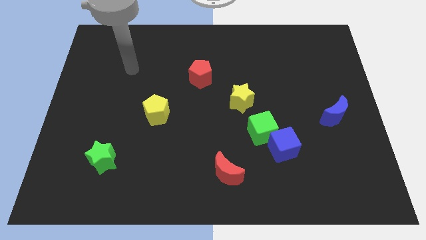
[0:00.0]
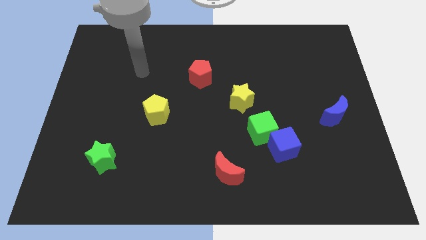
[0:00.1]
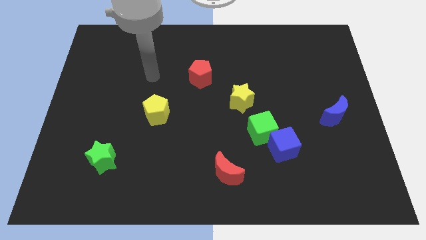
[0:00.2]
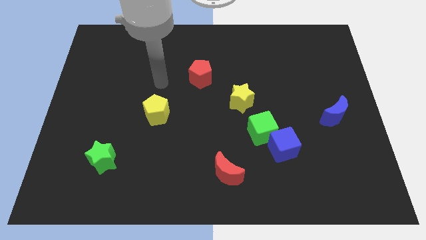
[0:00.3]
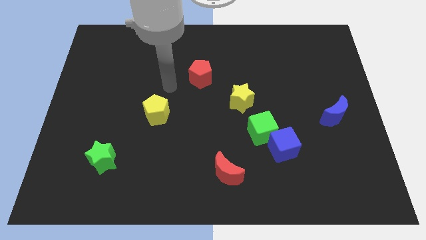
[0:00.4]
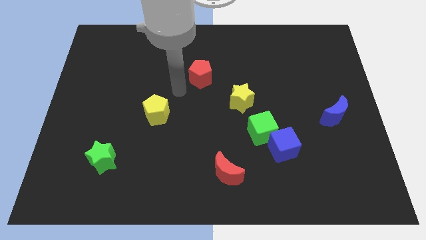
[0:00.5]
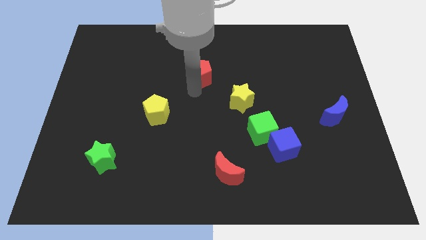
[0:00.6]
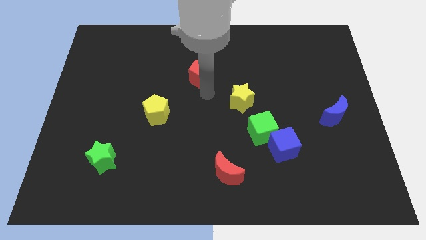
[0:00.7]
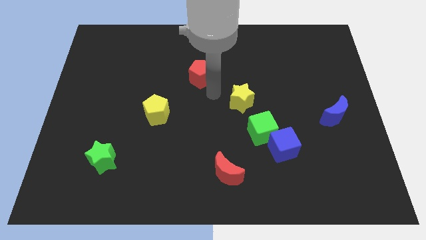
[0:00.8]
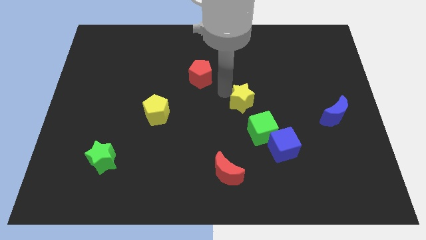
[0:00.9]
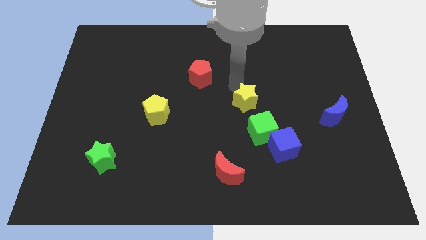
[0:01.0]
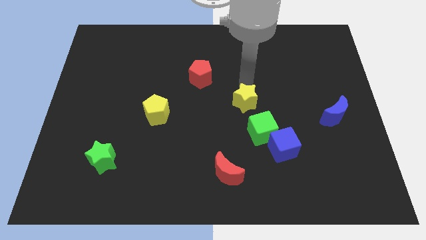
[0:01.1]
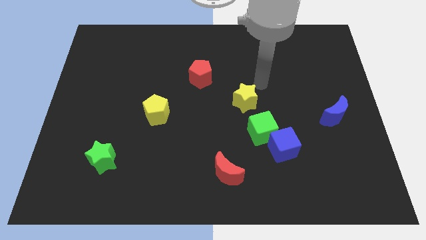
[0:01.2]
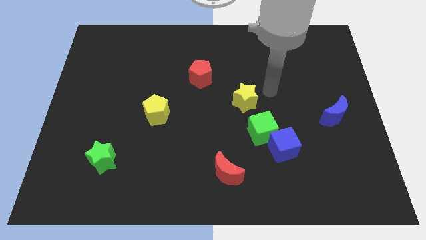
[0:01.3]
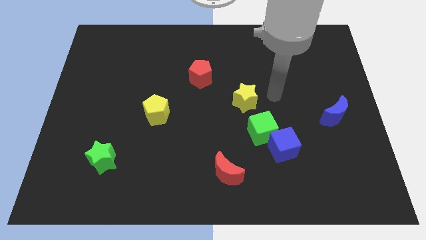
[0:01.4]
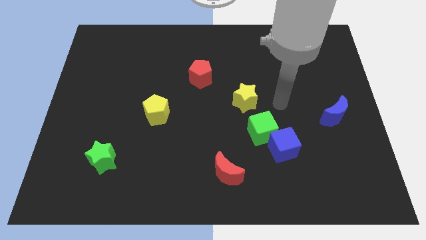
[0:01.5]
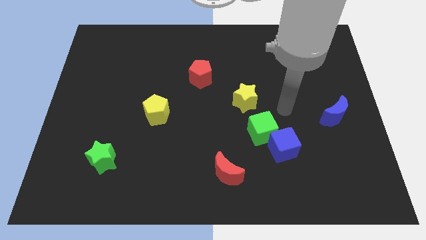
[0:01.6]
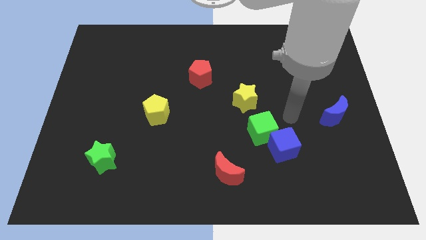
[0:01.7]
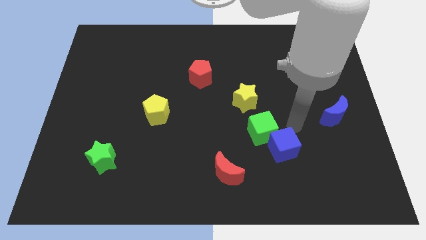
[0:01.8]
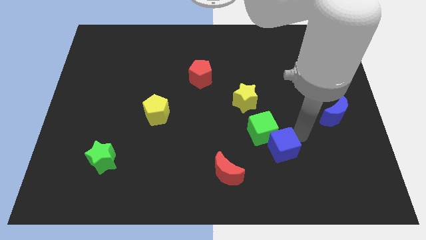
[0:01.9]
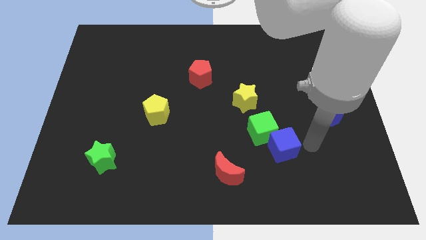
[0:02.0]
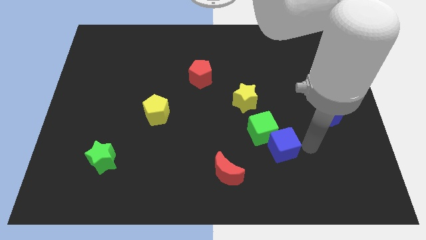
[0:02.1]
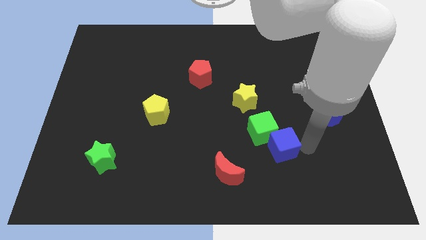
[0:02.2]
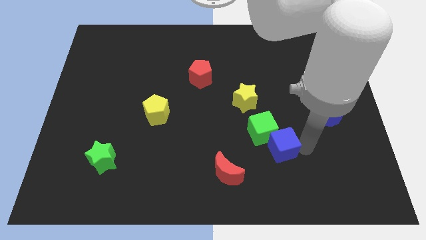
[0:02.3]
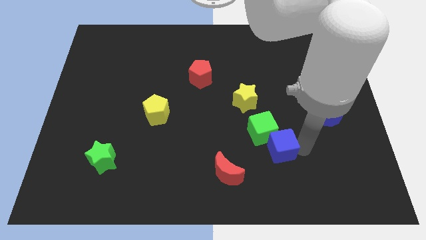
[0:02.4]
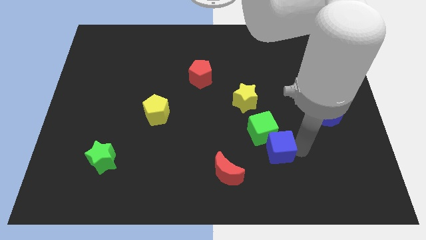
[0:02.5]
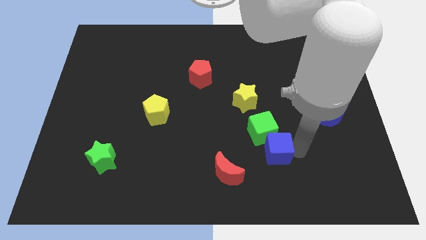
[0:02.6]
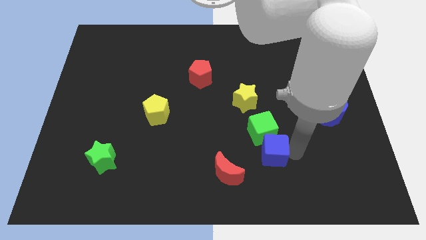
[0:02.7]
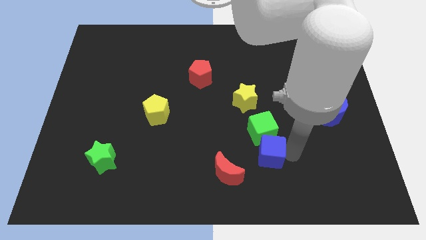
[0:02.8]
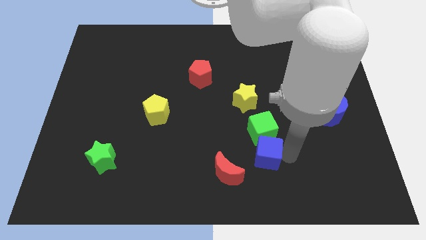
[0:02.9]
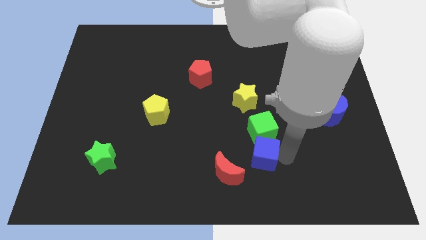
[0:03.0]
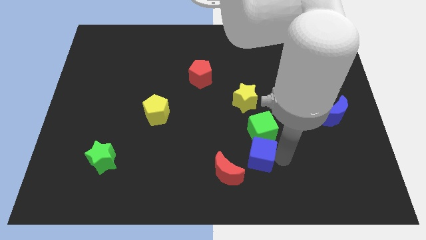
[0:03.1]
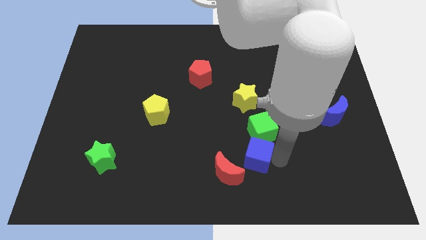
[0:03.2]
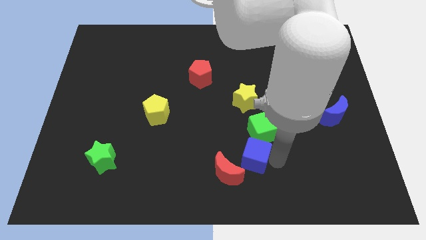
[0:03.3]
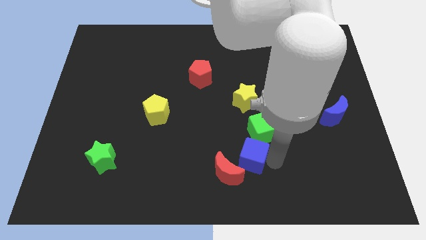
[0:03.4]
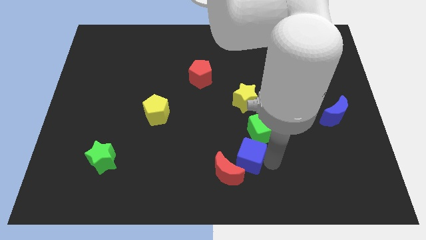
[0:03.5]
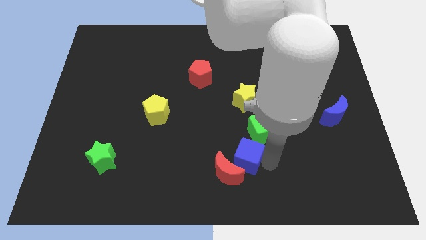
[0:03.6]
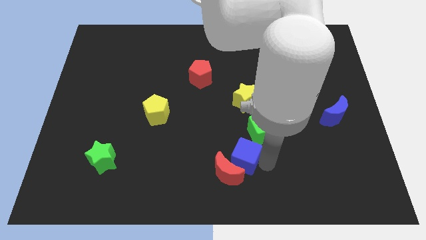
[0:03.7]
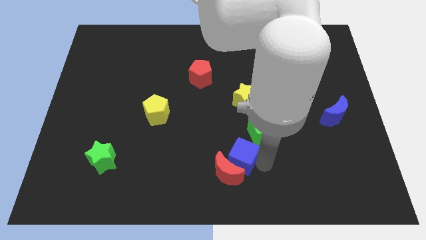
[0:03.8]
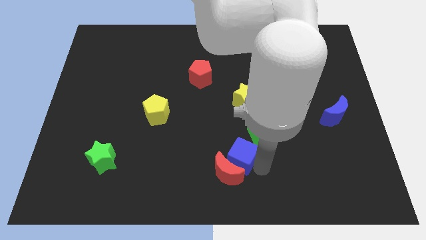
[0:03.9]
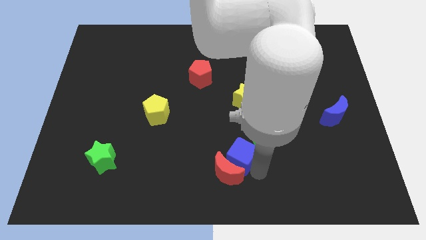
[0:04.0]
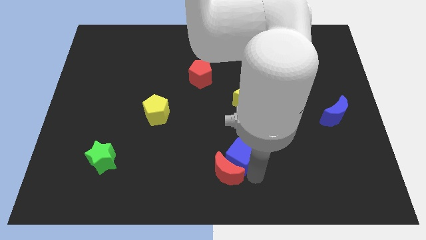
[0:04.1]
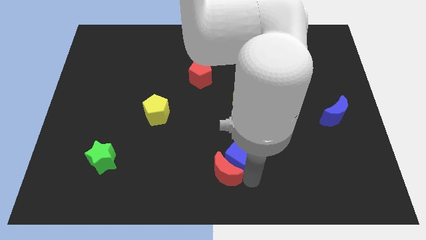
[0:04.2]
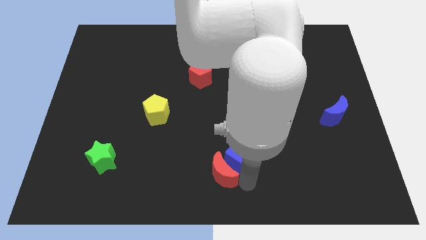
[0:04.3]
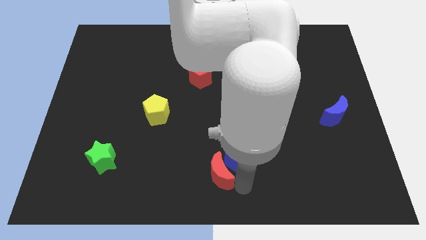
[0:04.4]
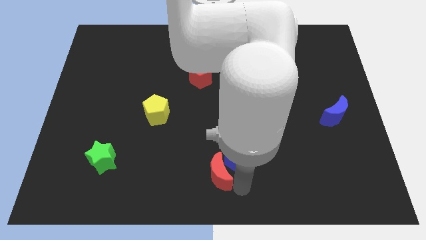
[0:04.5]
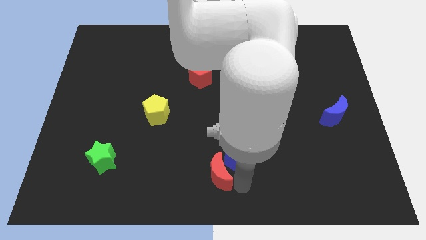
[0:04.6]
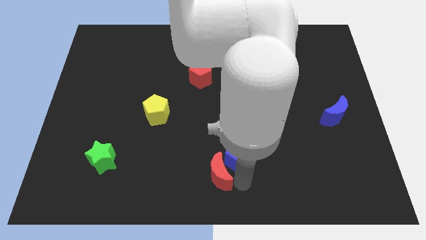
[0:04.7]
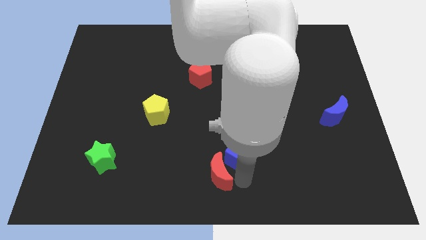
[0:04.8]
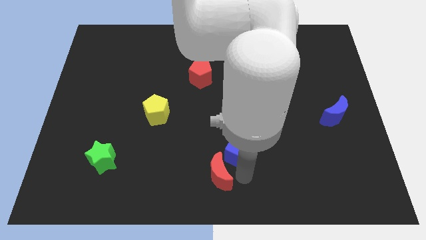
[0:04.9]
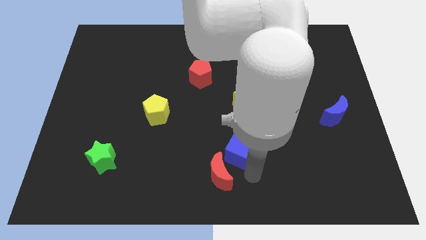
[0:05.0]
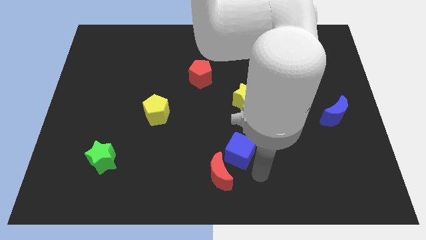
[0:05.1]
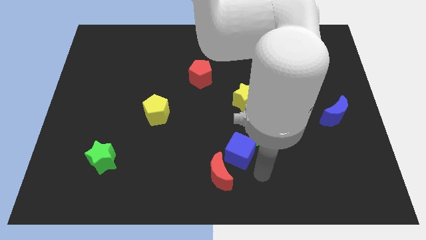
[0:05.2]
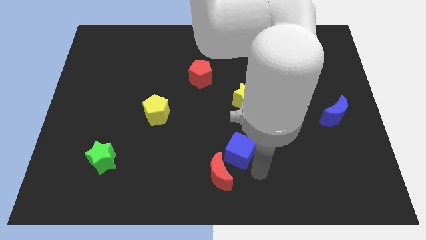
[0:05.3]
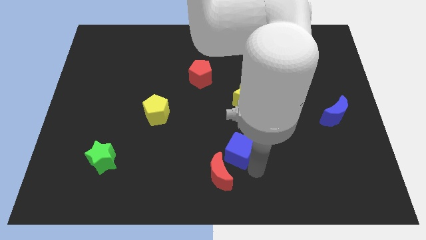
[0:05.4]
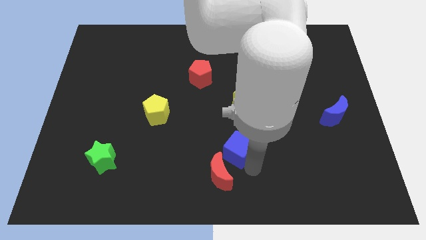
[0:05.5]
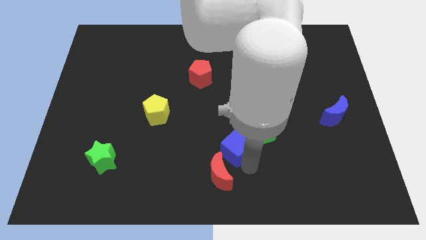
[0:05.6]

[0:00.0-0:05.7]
push the blue cube to the left side of the green cube

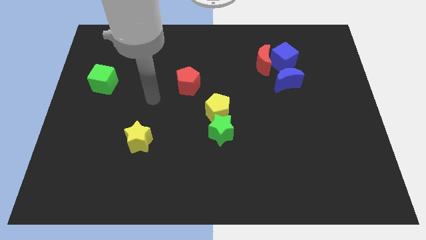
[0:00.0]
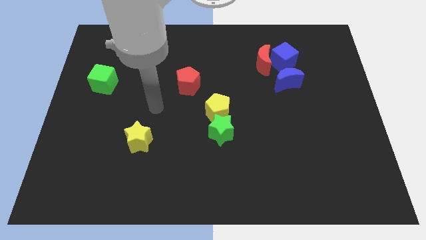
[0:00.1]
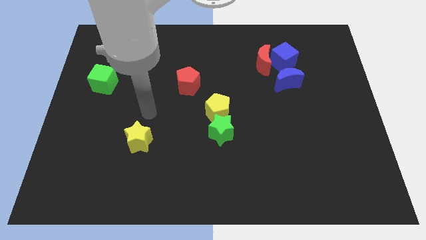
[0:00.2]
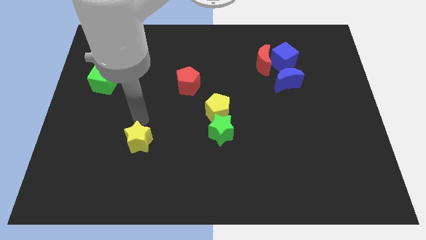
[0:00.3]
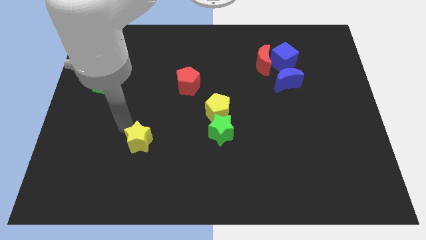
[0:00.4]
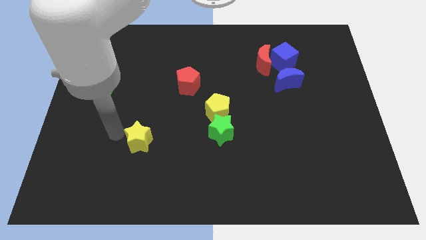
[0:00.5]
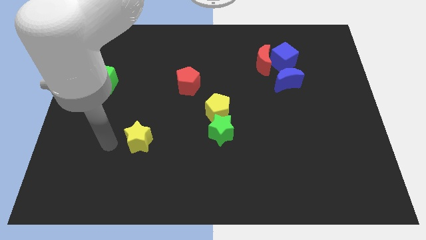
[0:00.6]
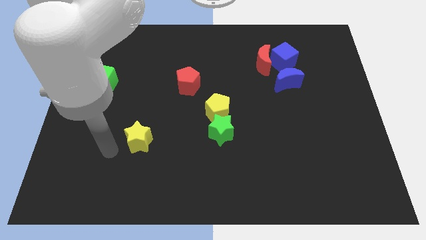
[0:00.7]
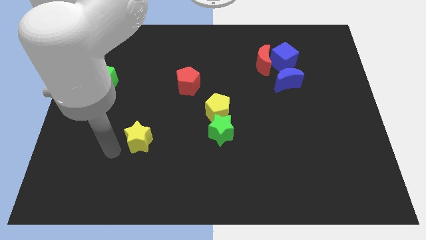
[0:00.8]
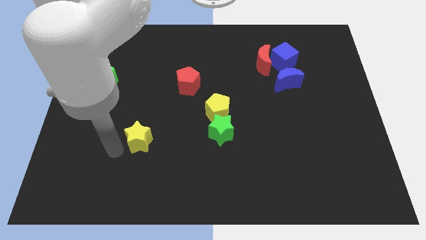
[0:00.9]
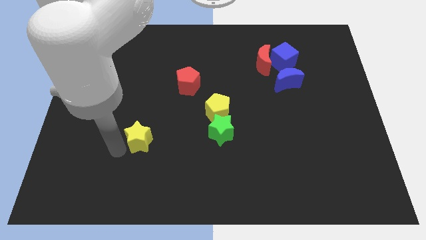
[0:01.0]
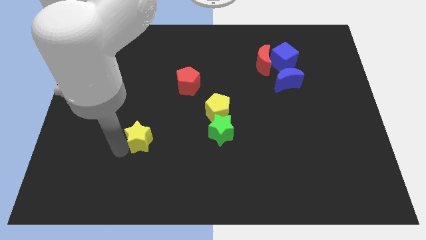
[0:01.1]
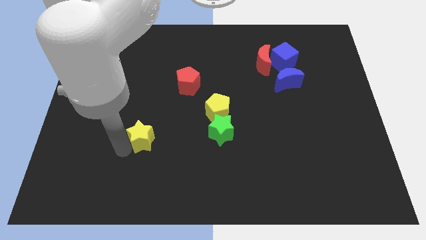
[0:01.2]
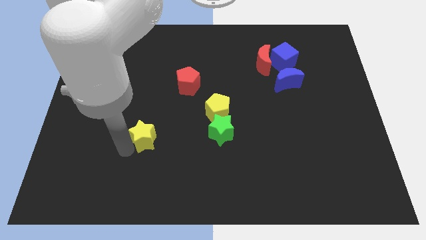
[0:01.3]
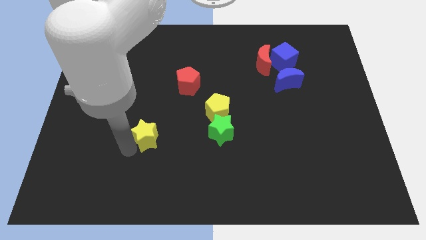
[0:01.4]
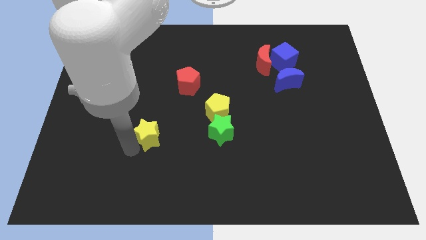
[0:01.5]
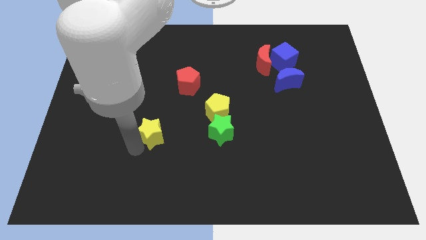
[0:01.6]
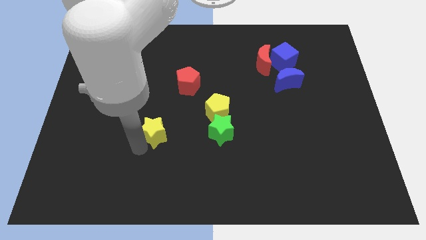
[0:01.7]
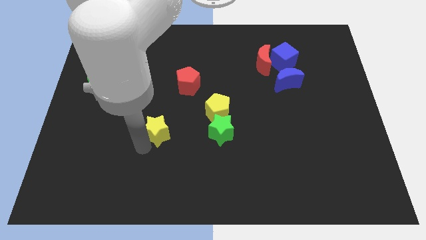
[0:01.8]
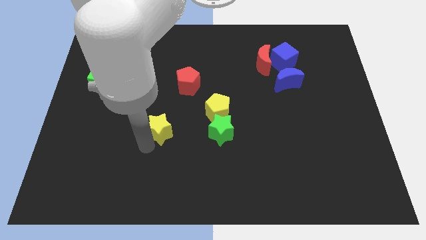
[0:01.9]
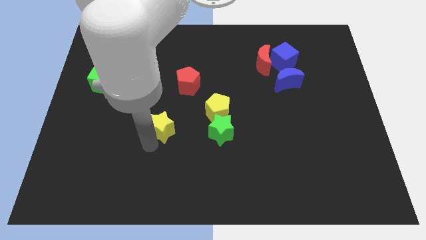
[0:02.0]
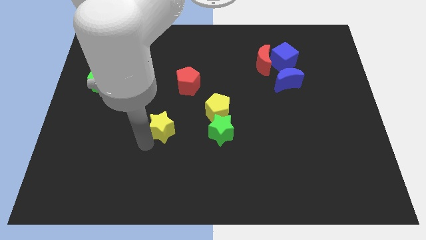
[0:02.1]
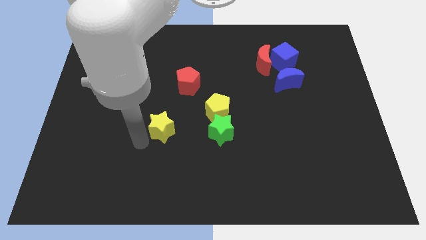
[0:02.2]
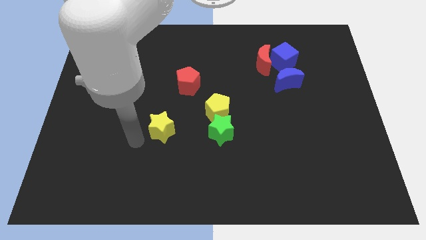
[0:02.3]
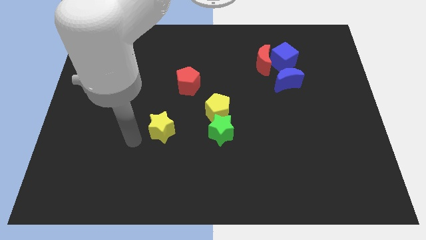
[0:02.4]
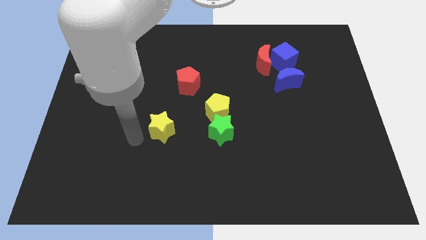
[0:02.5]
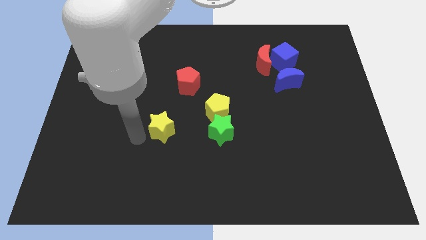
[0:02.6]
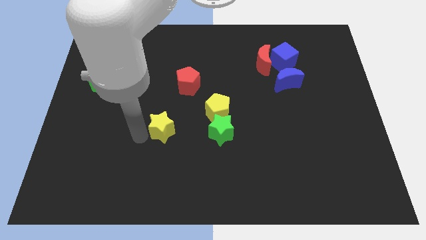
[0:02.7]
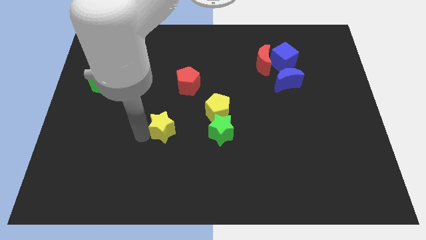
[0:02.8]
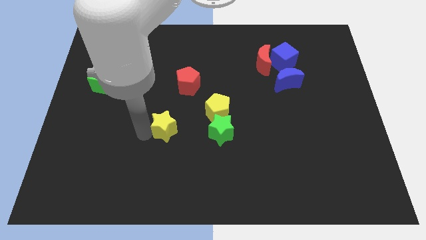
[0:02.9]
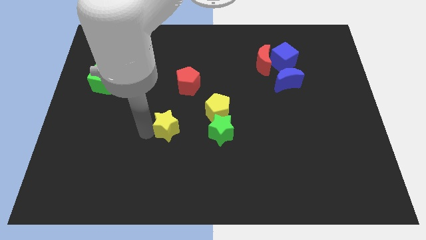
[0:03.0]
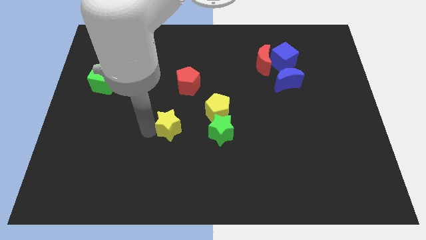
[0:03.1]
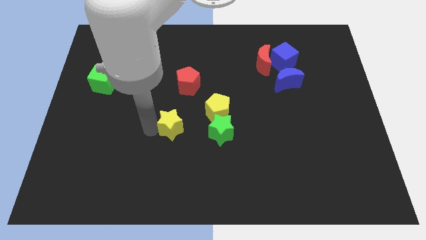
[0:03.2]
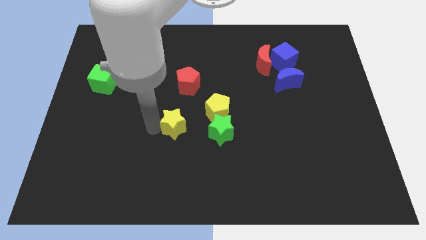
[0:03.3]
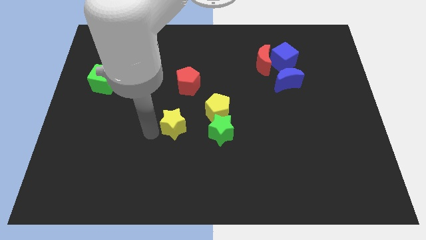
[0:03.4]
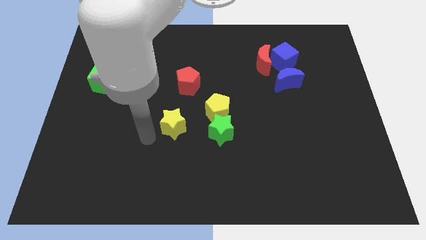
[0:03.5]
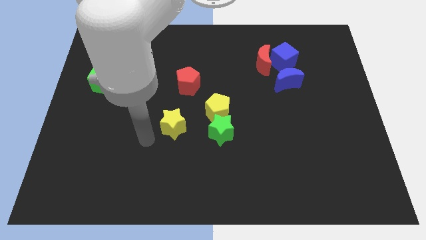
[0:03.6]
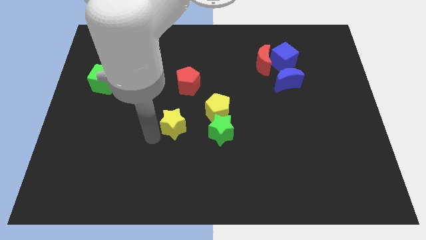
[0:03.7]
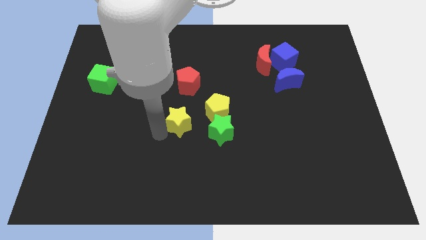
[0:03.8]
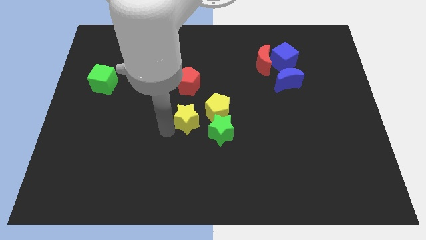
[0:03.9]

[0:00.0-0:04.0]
slide the yellow star to the top left side of the green star
